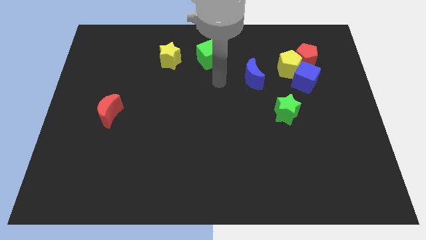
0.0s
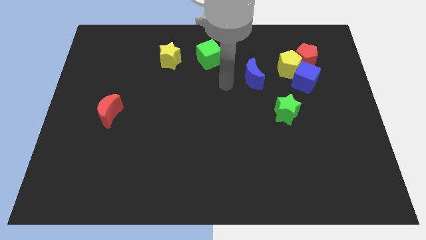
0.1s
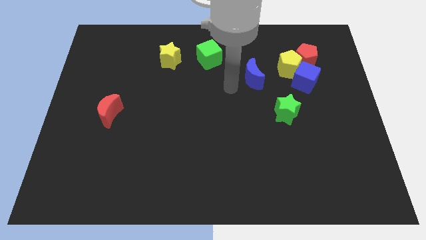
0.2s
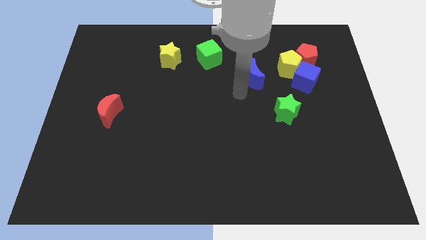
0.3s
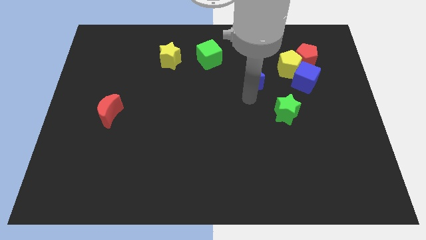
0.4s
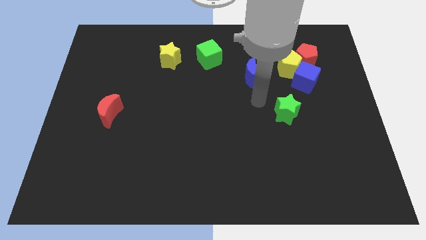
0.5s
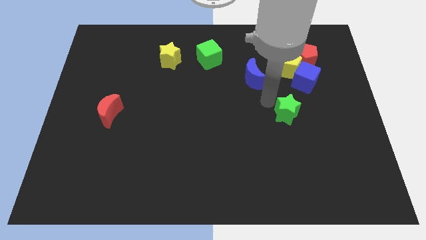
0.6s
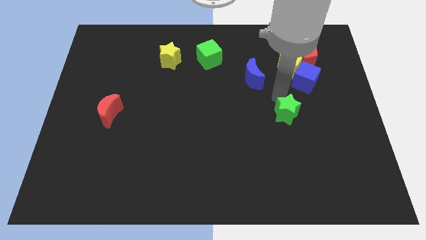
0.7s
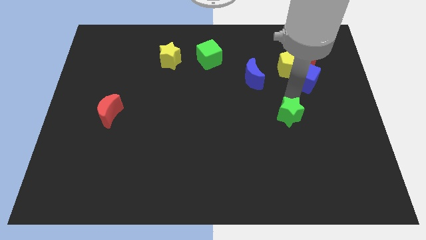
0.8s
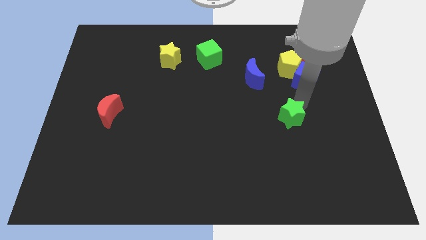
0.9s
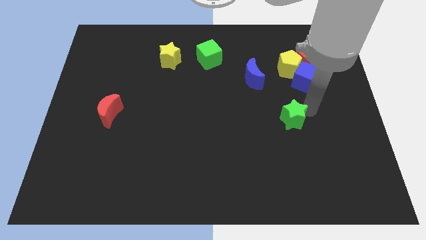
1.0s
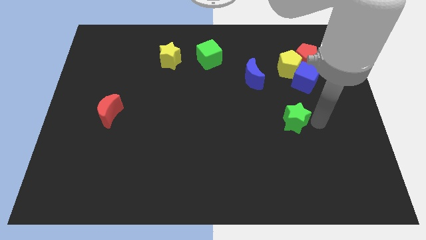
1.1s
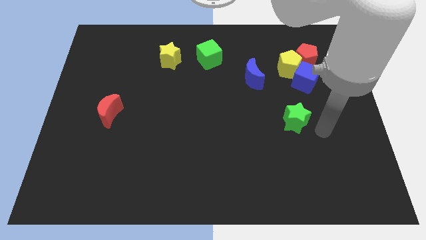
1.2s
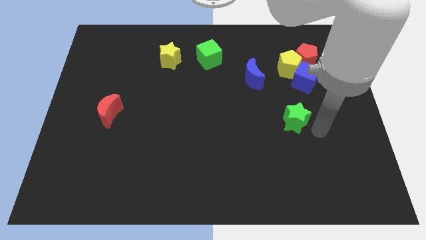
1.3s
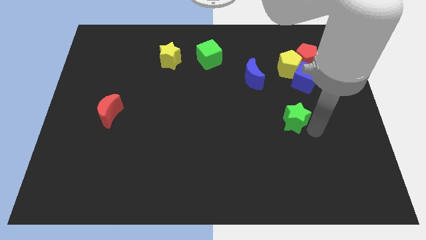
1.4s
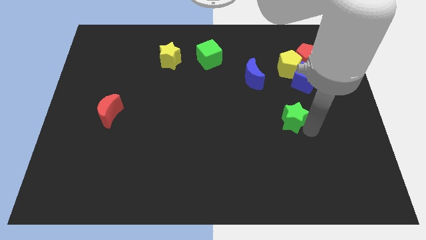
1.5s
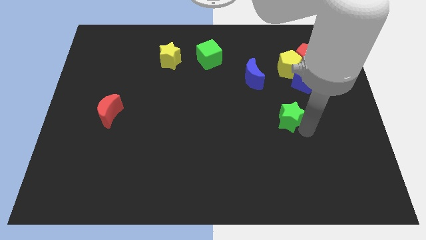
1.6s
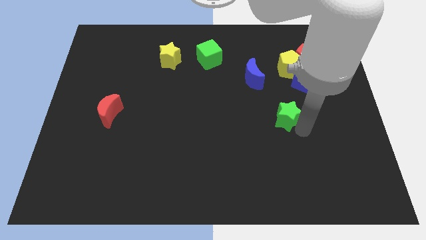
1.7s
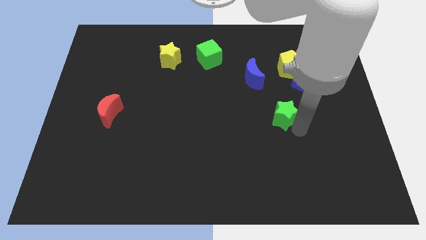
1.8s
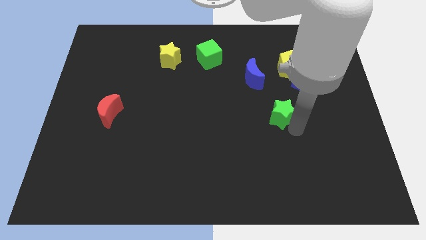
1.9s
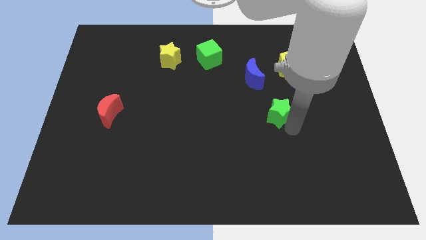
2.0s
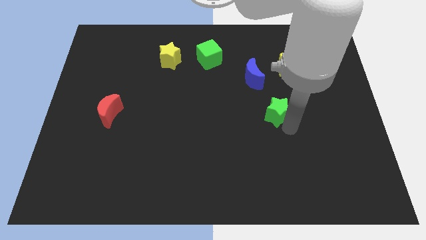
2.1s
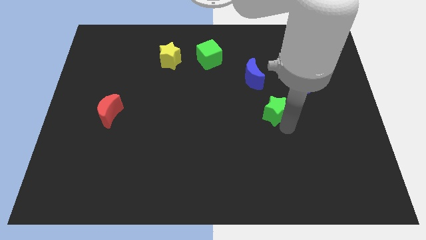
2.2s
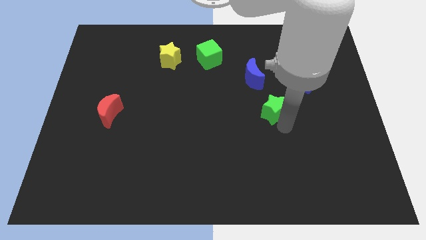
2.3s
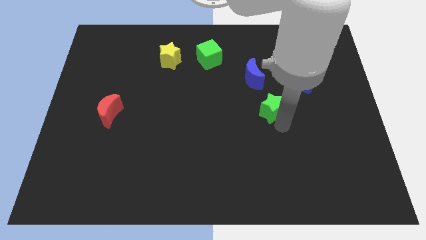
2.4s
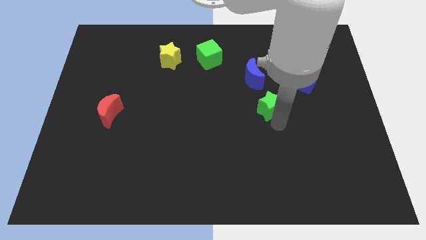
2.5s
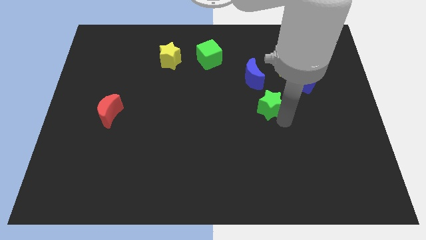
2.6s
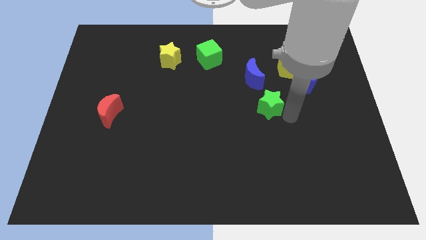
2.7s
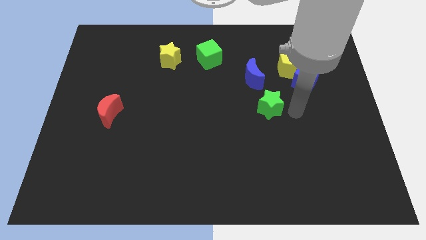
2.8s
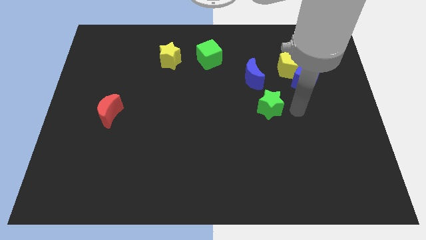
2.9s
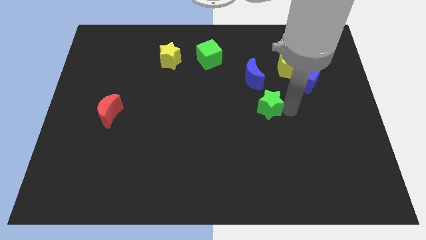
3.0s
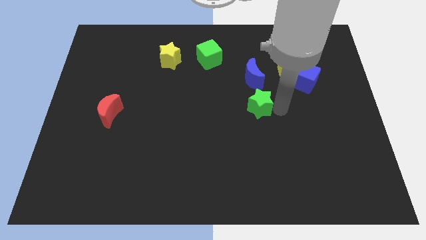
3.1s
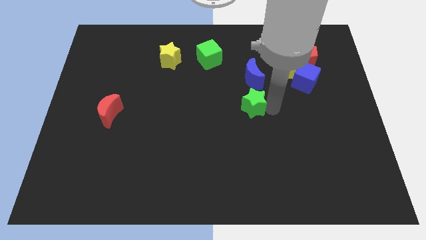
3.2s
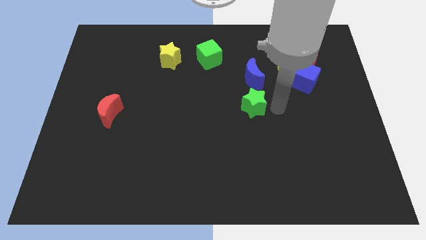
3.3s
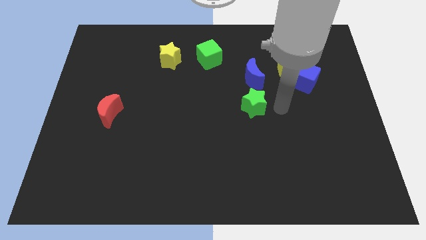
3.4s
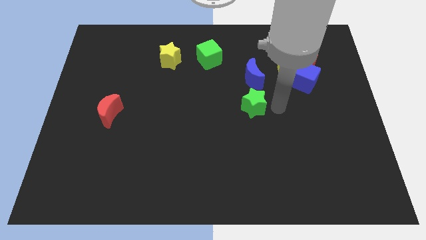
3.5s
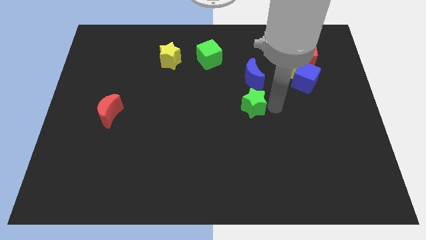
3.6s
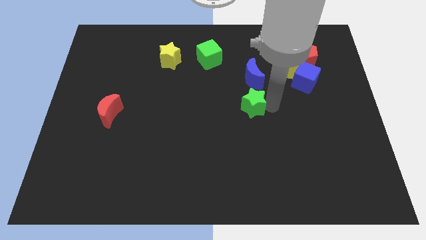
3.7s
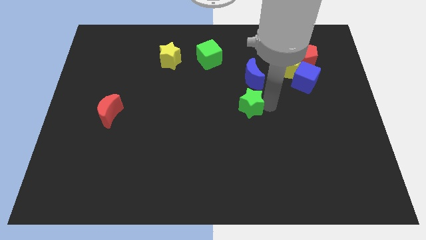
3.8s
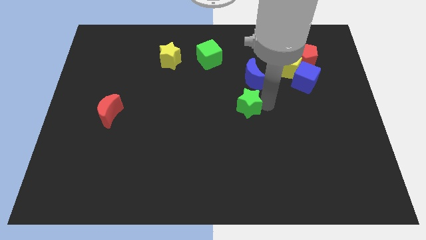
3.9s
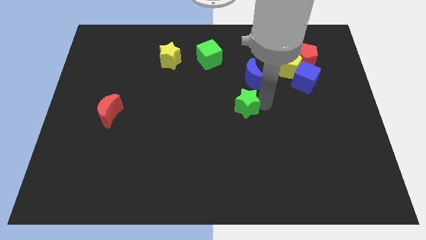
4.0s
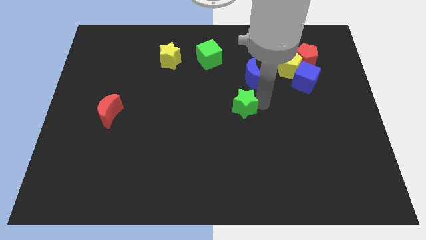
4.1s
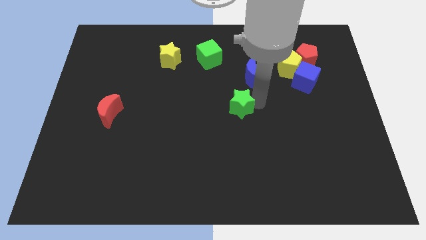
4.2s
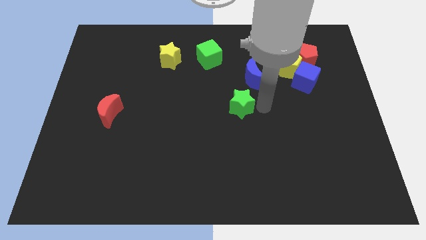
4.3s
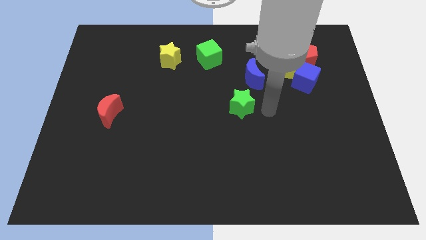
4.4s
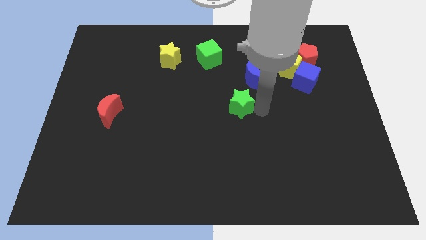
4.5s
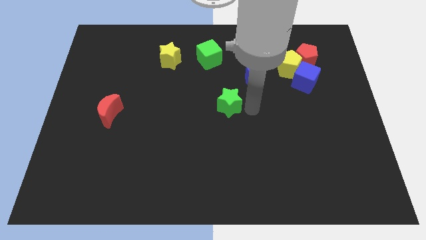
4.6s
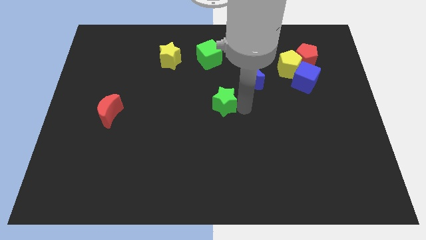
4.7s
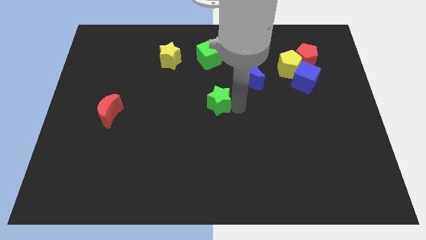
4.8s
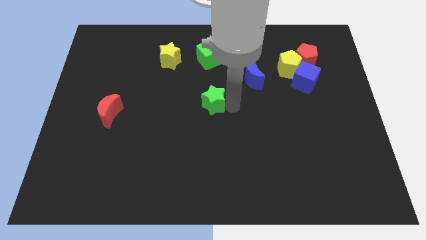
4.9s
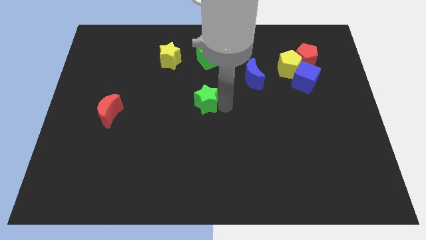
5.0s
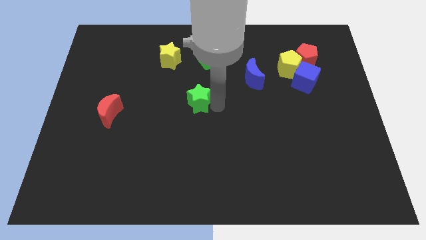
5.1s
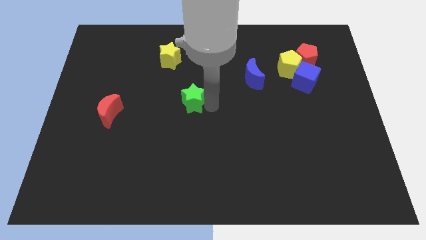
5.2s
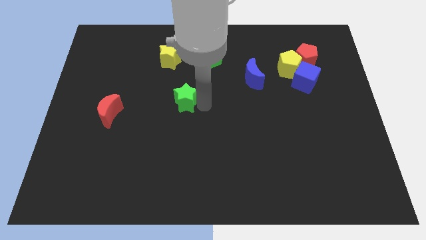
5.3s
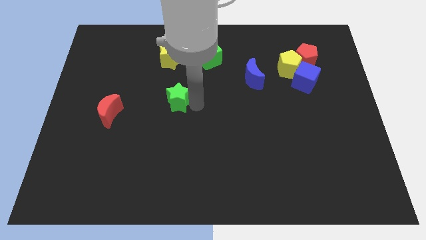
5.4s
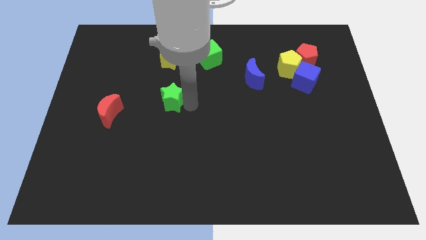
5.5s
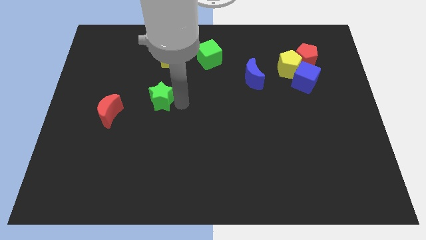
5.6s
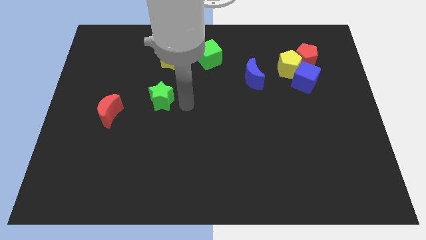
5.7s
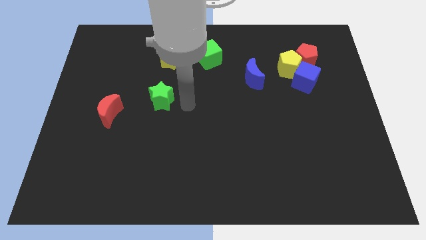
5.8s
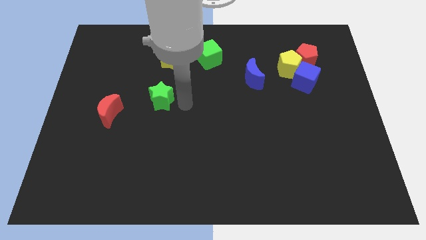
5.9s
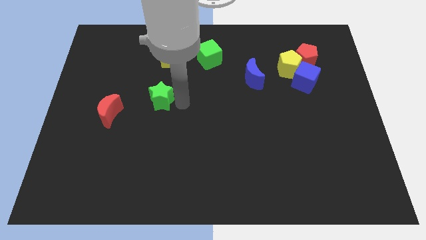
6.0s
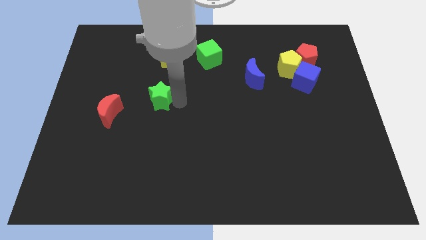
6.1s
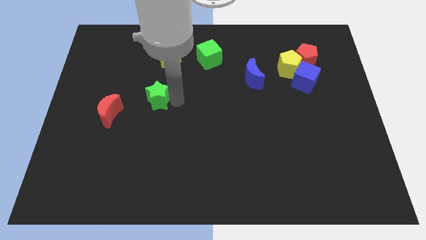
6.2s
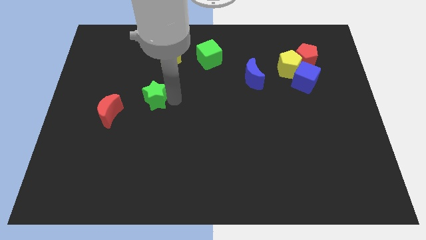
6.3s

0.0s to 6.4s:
move the green star diagonally up and to the right of the red moon
